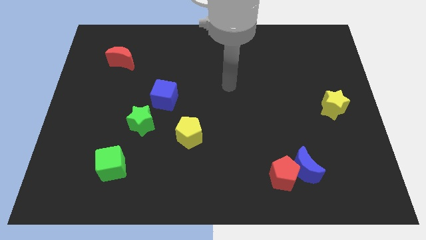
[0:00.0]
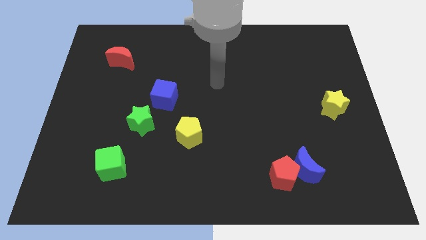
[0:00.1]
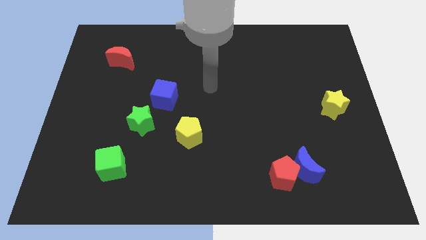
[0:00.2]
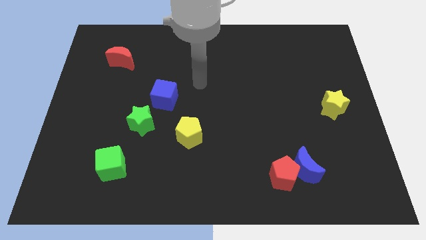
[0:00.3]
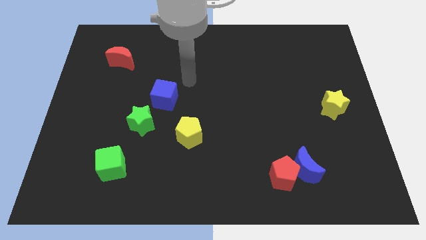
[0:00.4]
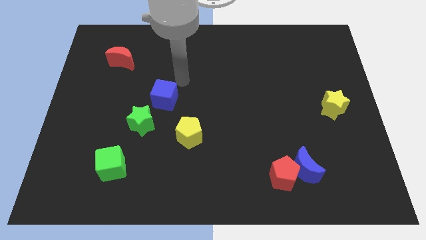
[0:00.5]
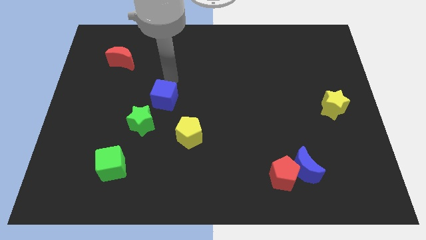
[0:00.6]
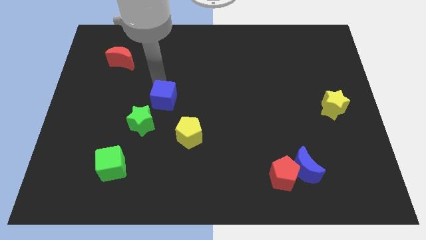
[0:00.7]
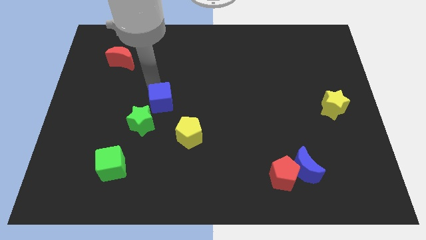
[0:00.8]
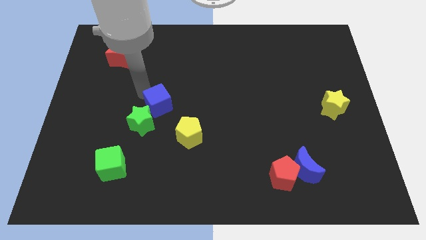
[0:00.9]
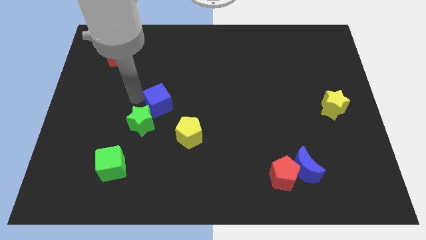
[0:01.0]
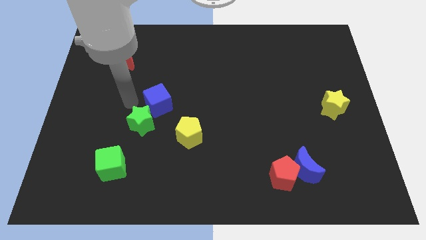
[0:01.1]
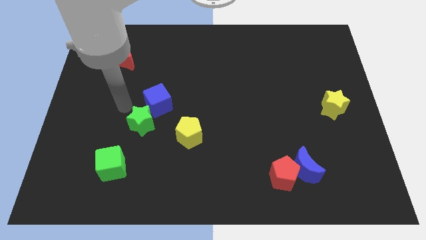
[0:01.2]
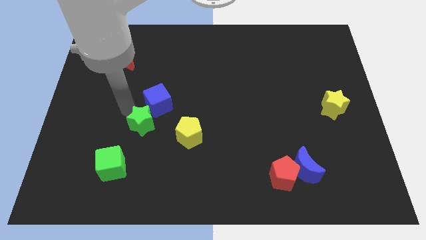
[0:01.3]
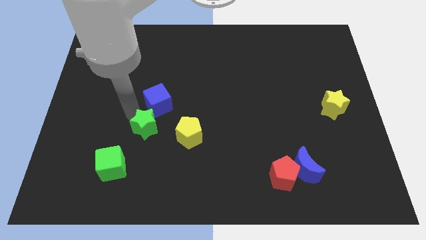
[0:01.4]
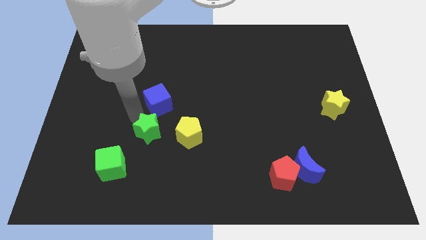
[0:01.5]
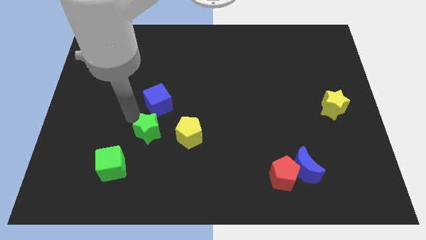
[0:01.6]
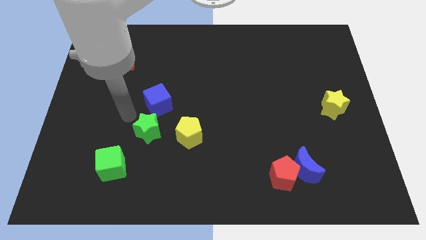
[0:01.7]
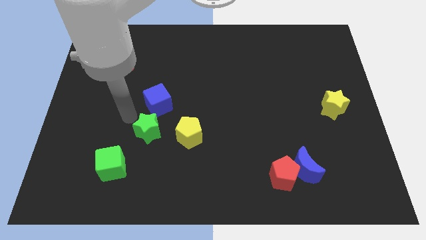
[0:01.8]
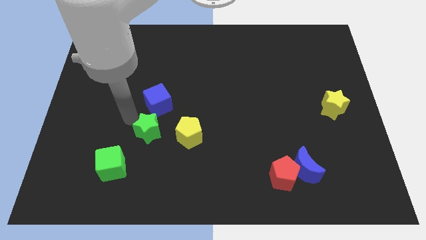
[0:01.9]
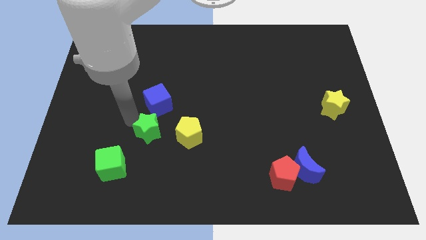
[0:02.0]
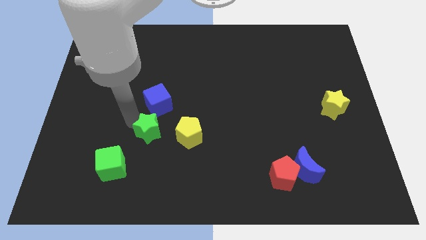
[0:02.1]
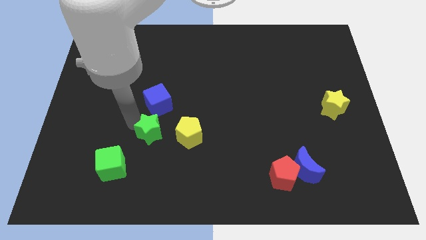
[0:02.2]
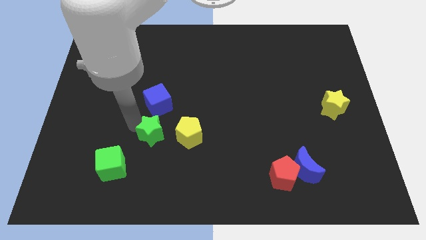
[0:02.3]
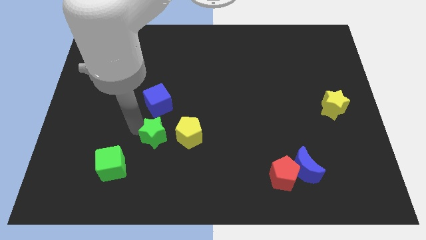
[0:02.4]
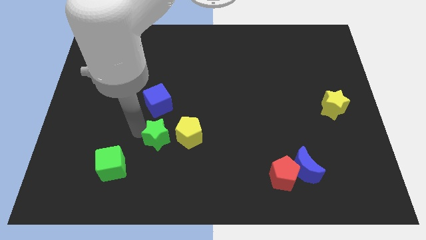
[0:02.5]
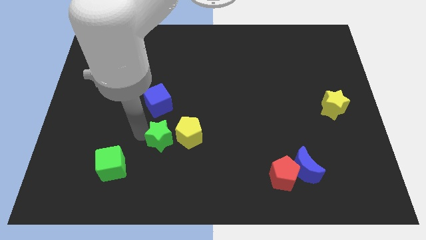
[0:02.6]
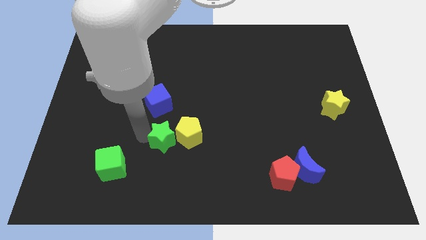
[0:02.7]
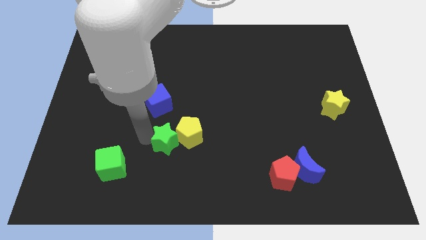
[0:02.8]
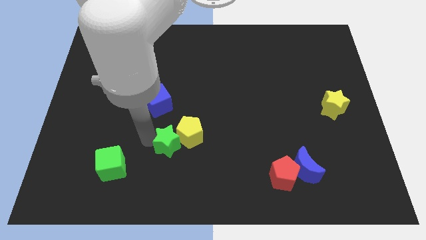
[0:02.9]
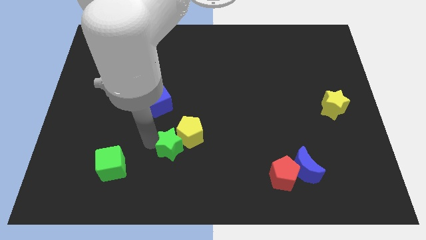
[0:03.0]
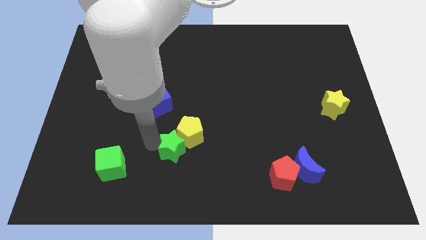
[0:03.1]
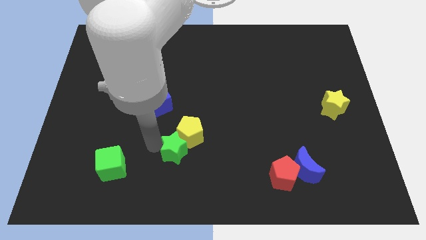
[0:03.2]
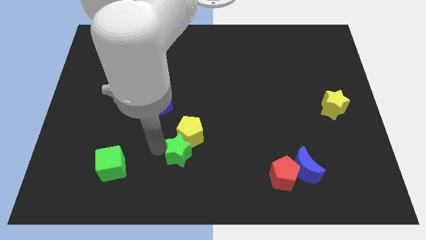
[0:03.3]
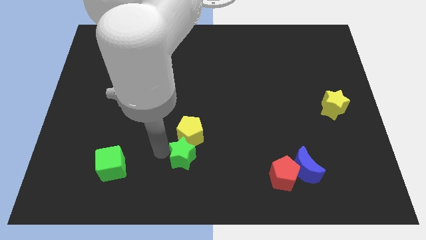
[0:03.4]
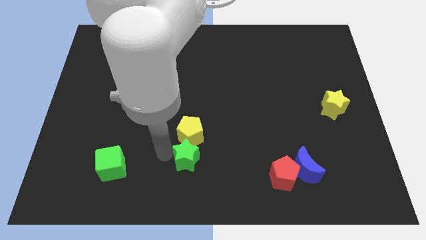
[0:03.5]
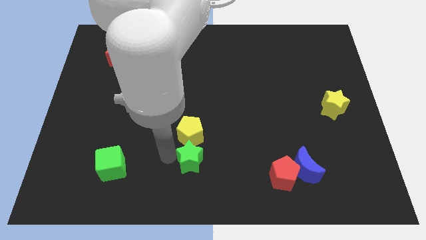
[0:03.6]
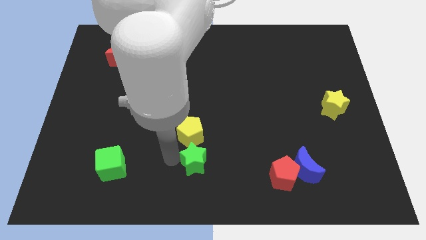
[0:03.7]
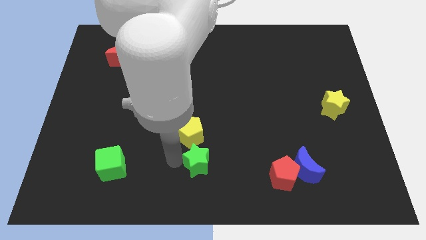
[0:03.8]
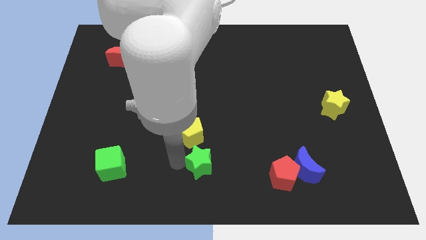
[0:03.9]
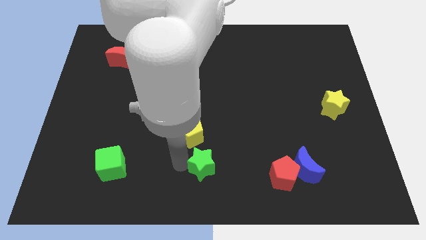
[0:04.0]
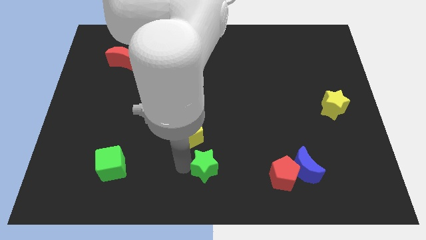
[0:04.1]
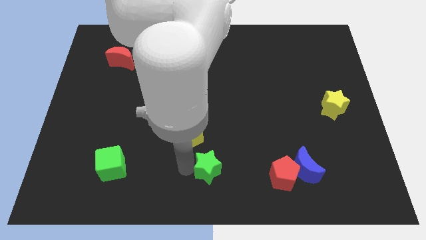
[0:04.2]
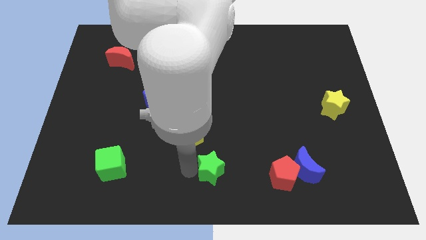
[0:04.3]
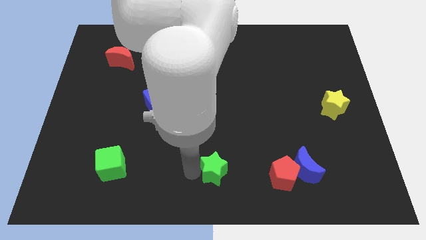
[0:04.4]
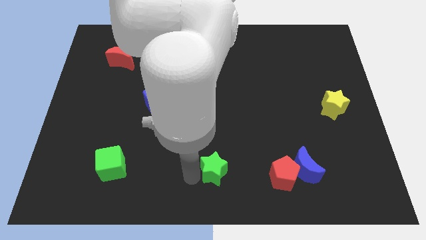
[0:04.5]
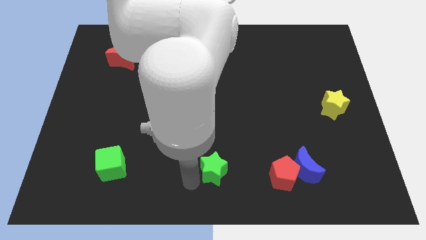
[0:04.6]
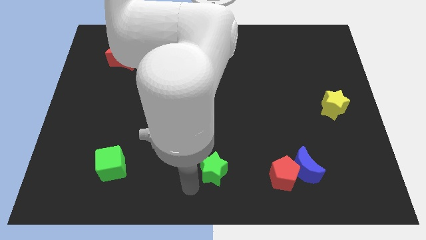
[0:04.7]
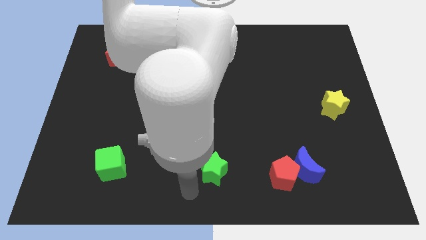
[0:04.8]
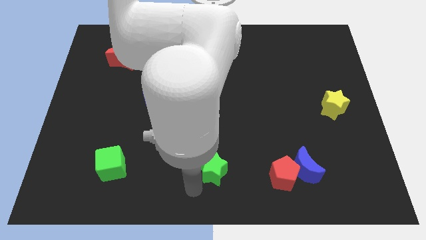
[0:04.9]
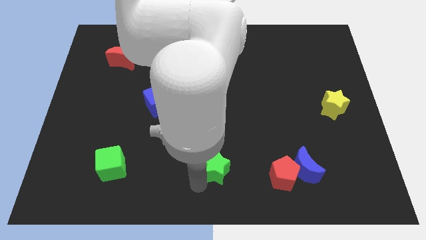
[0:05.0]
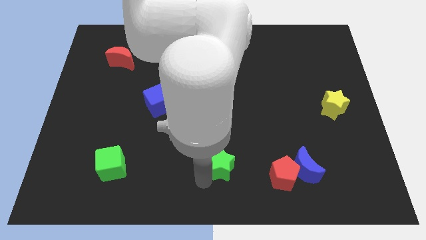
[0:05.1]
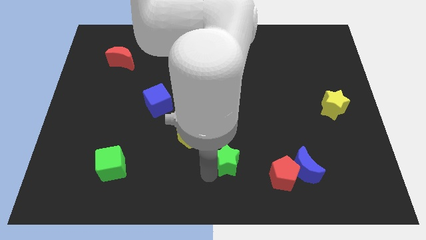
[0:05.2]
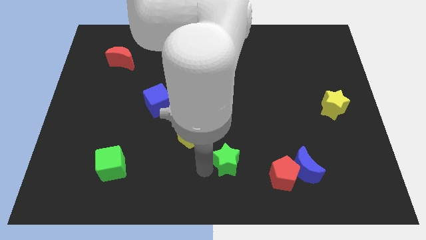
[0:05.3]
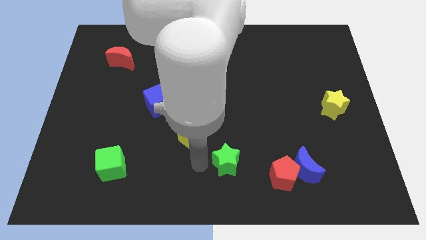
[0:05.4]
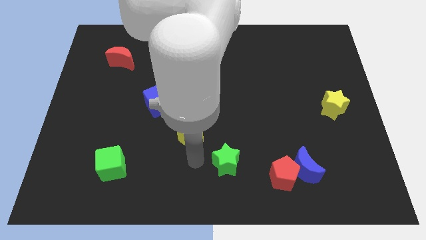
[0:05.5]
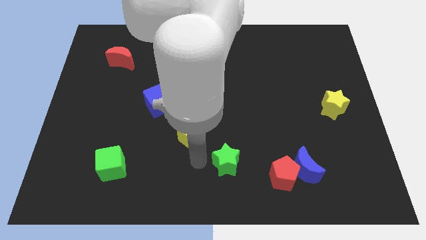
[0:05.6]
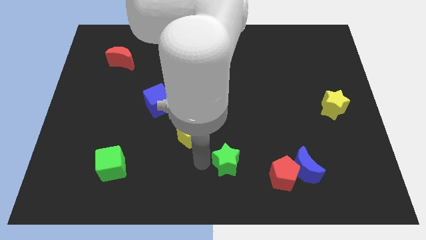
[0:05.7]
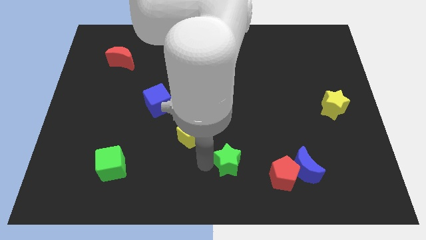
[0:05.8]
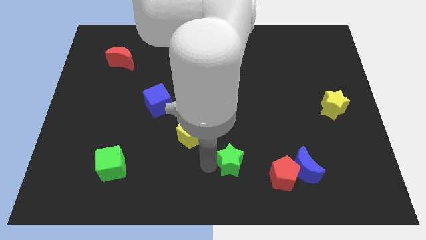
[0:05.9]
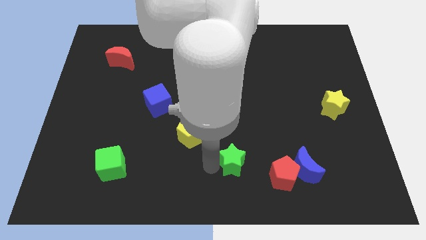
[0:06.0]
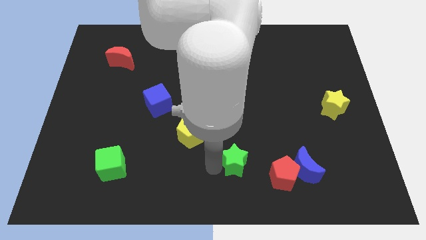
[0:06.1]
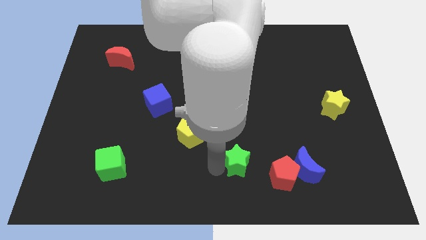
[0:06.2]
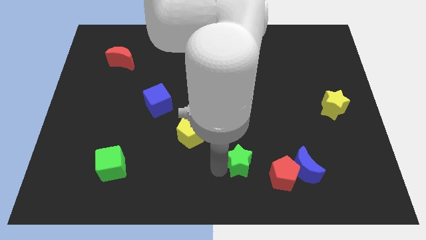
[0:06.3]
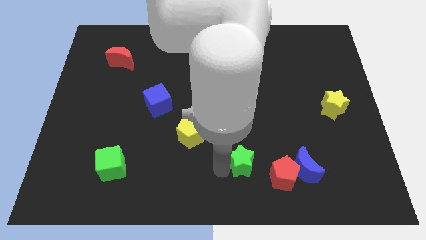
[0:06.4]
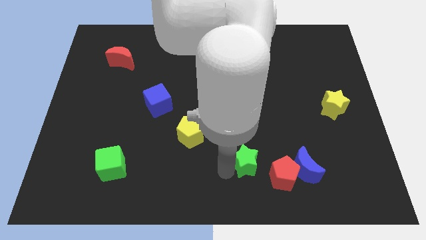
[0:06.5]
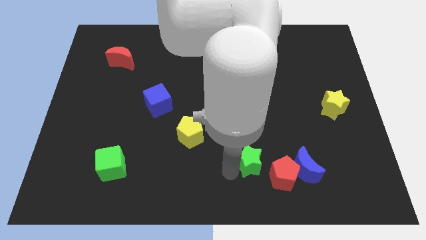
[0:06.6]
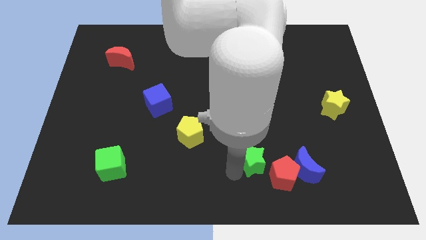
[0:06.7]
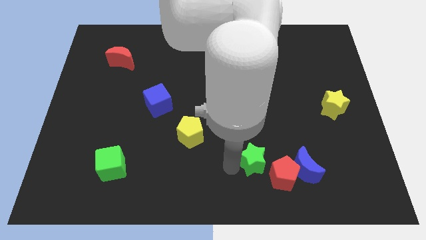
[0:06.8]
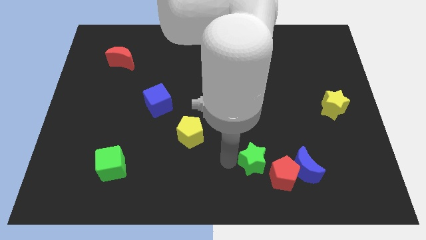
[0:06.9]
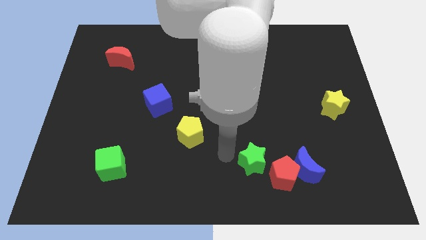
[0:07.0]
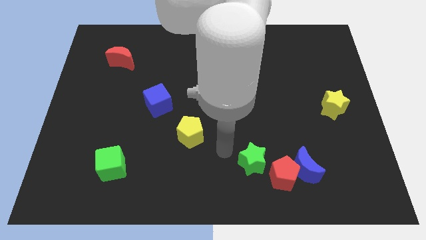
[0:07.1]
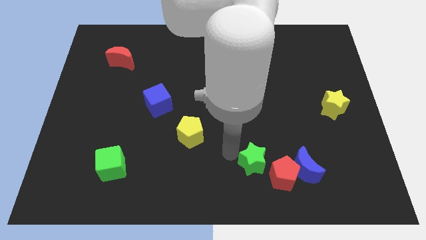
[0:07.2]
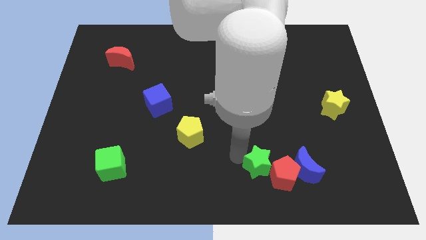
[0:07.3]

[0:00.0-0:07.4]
slide the green star to the red pentagon
